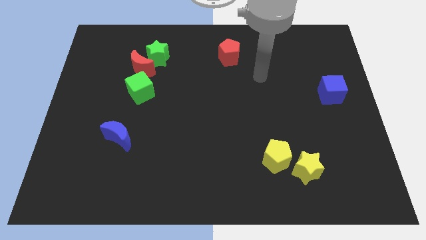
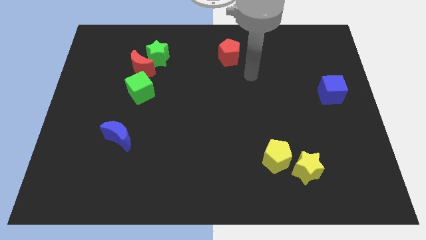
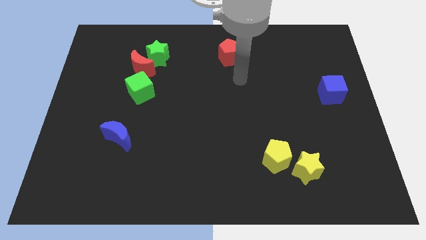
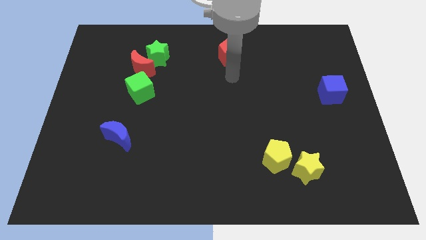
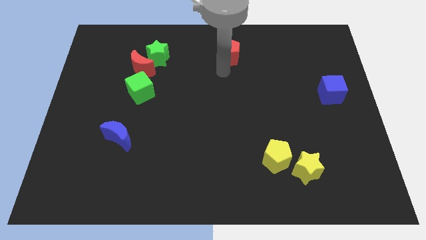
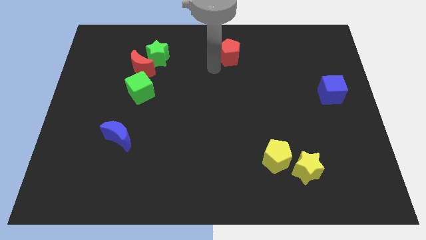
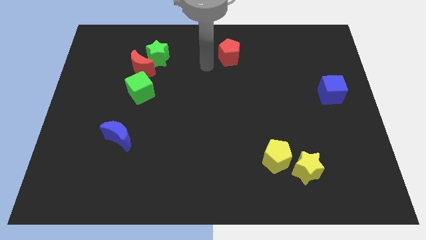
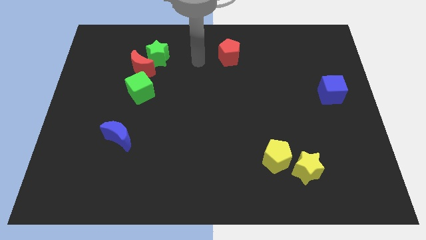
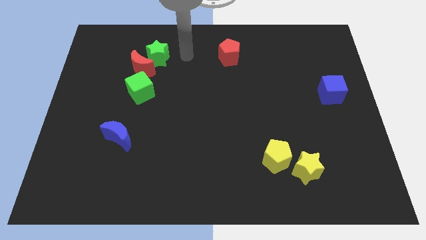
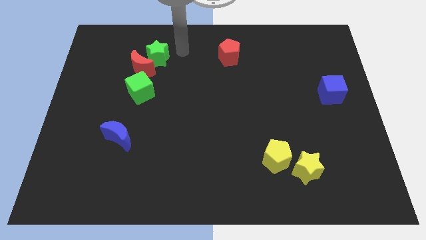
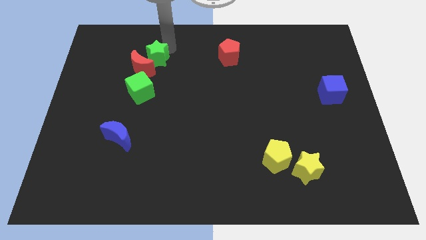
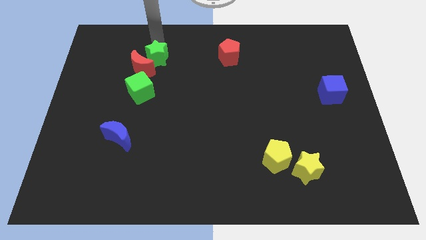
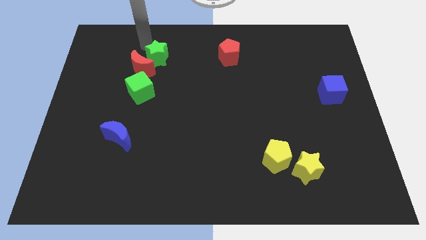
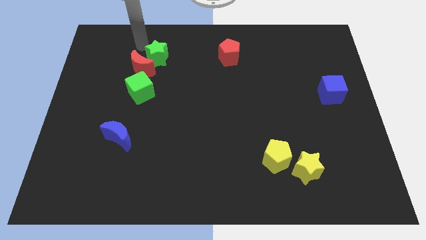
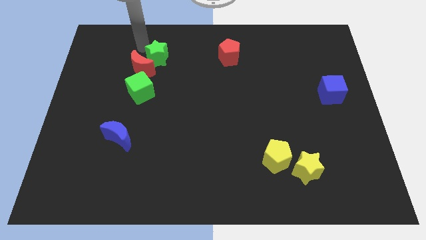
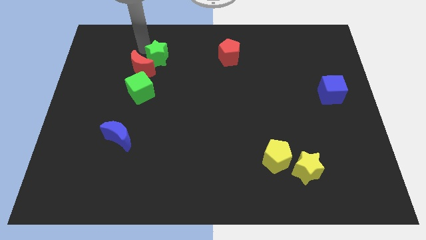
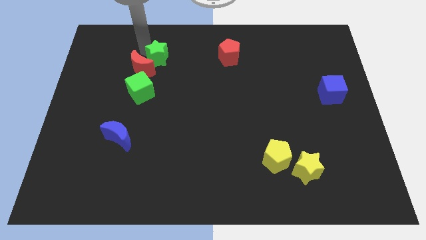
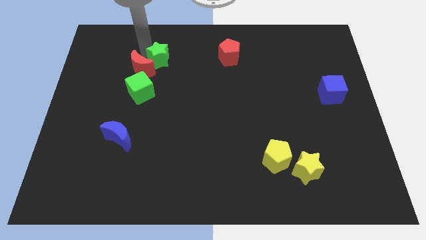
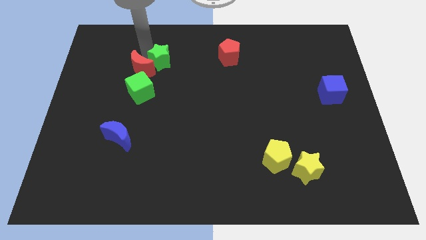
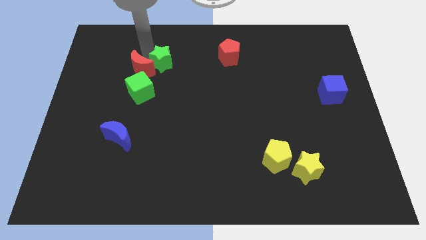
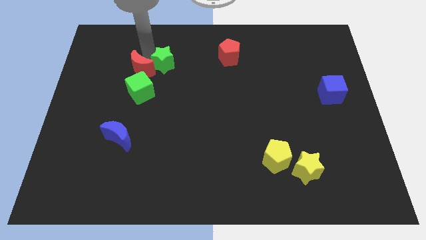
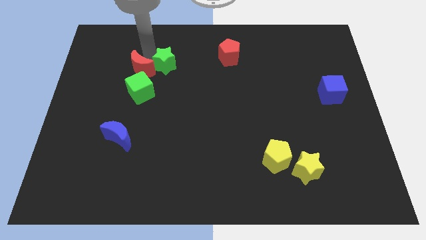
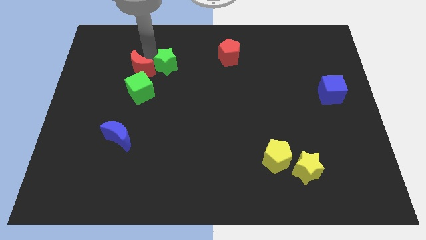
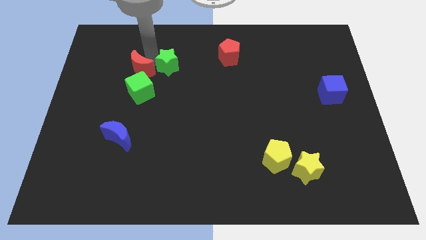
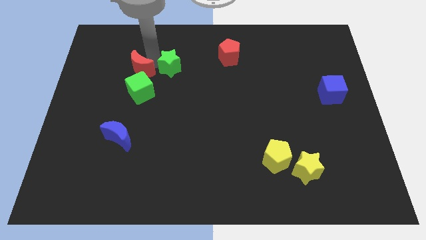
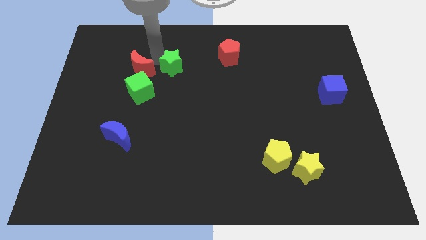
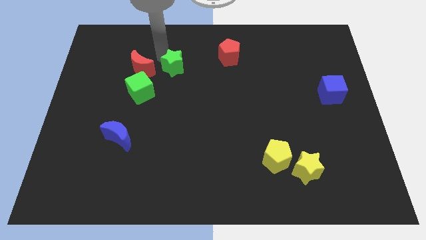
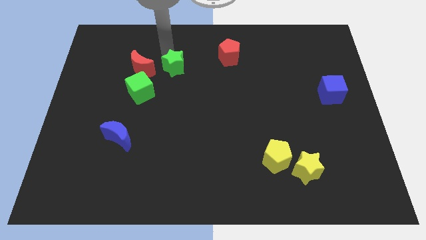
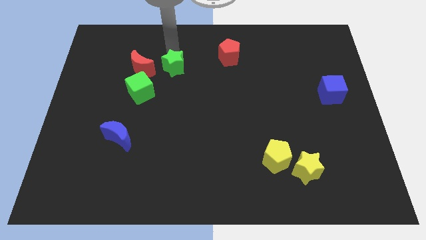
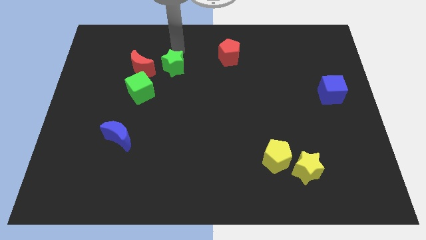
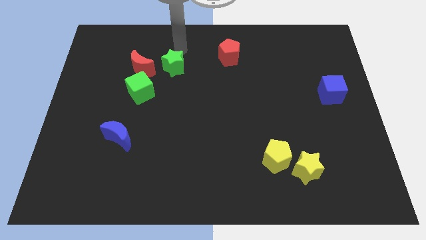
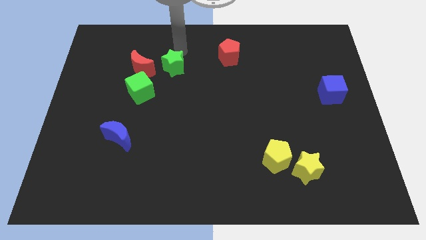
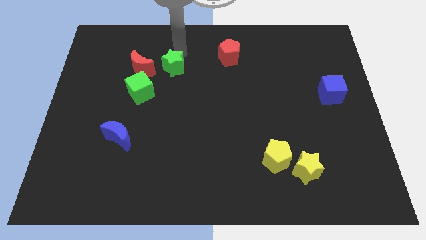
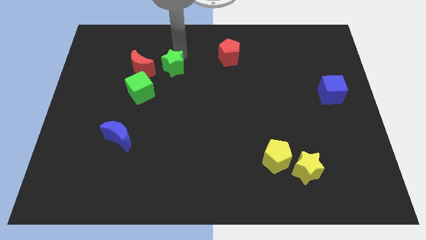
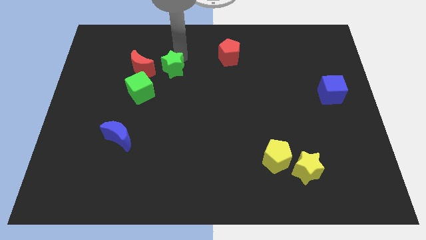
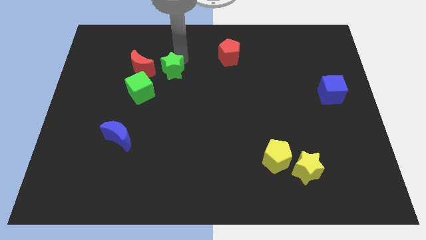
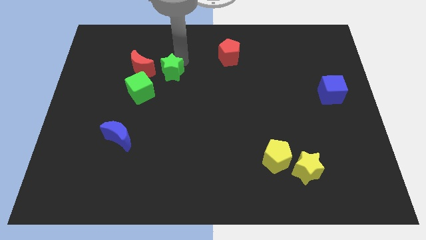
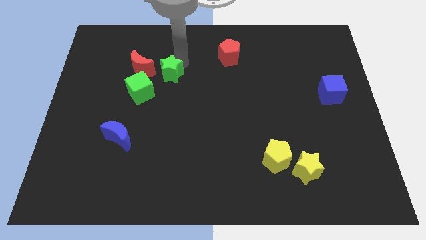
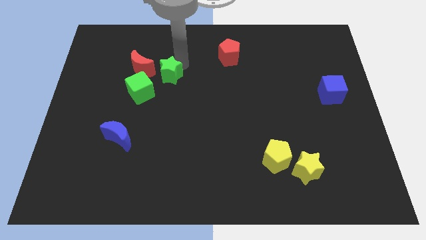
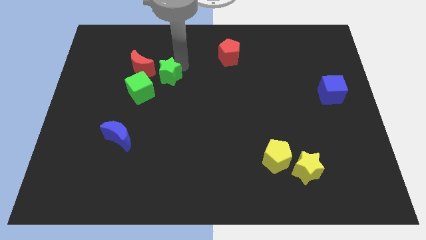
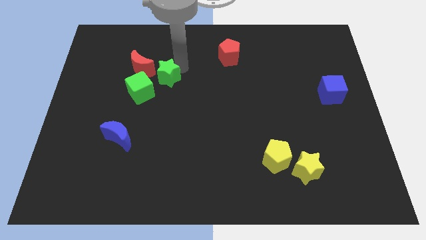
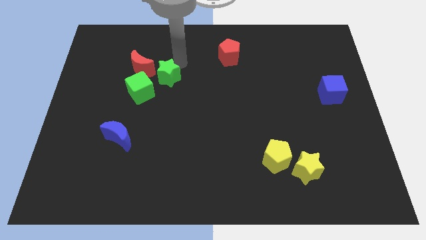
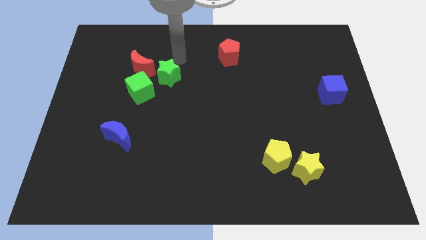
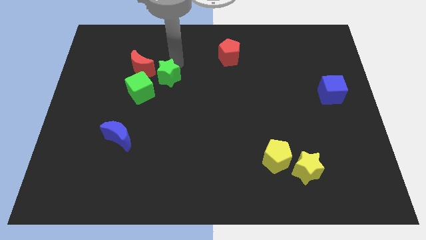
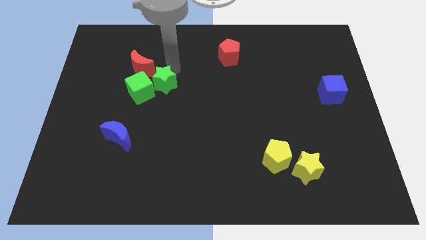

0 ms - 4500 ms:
slightly push the green star down

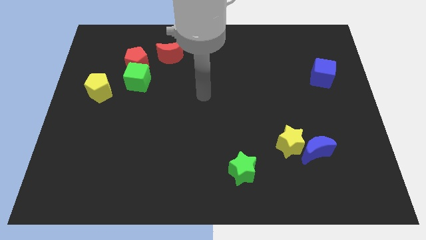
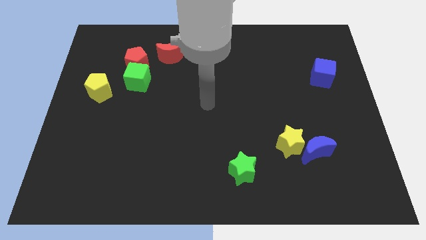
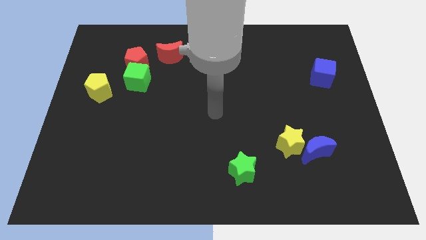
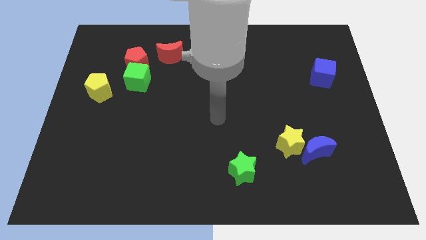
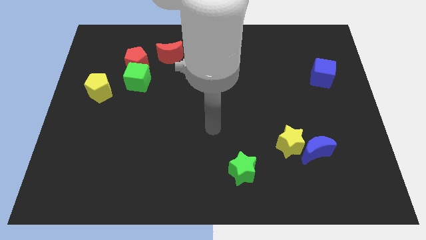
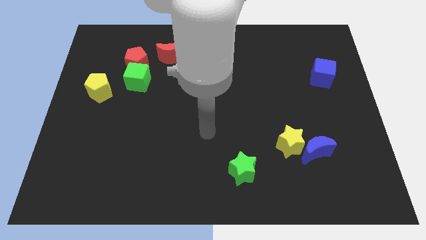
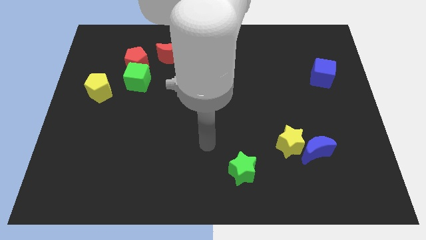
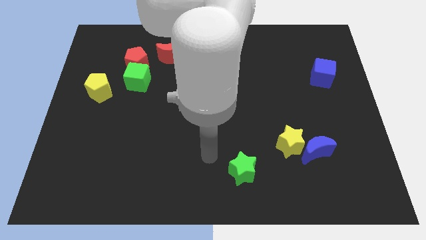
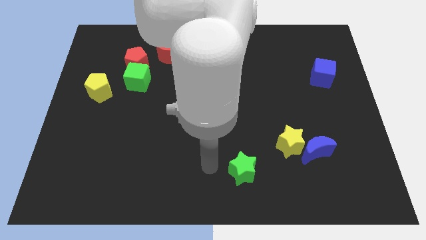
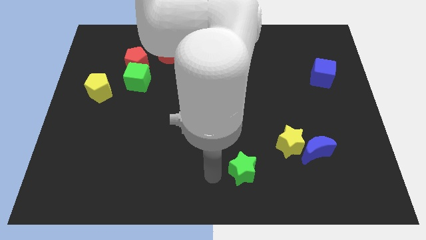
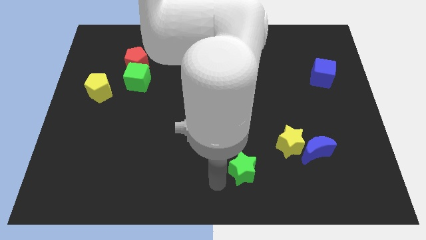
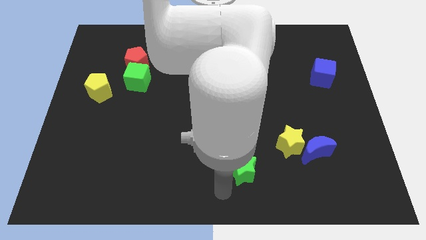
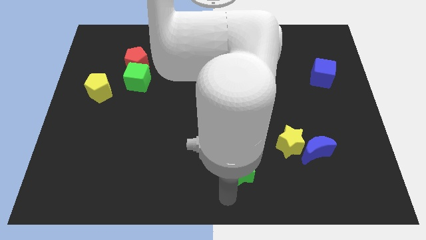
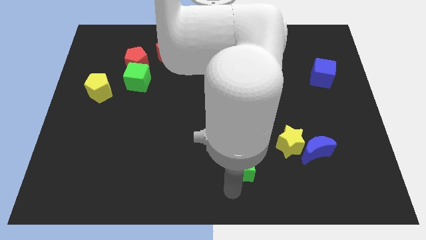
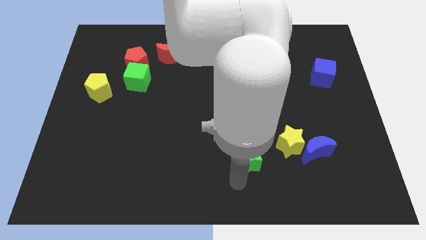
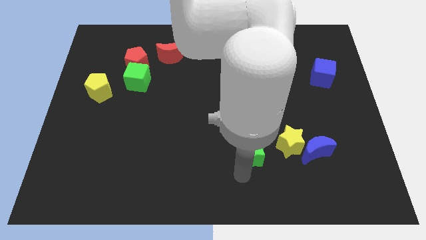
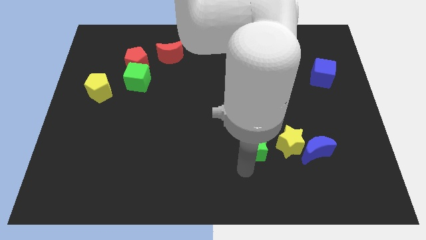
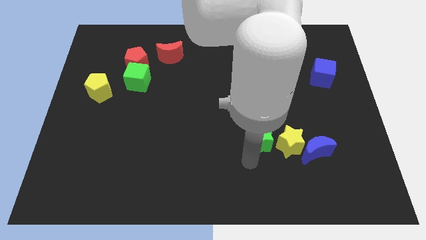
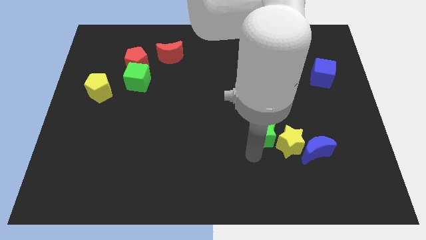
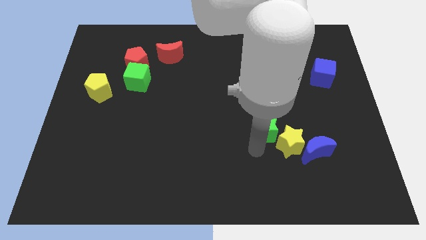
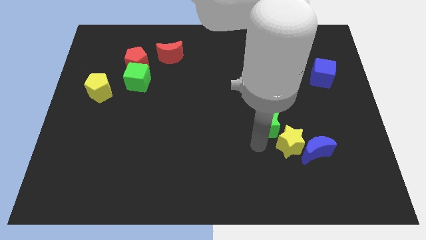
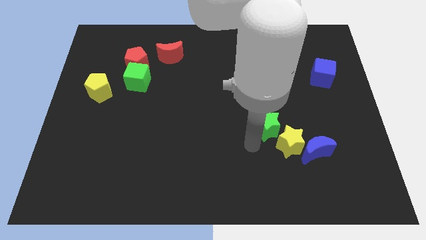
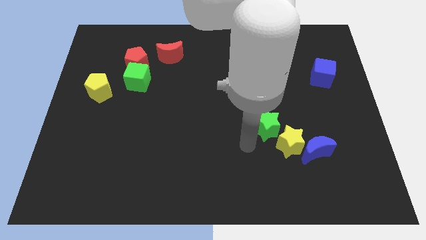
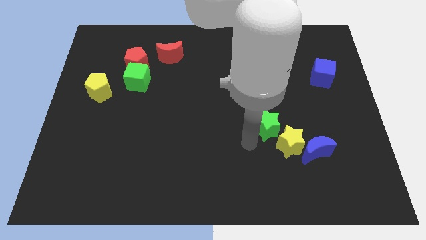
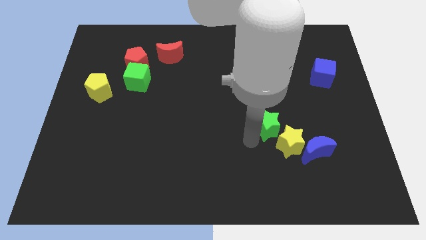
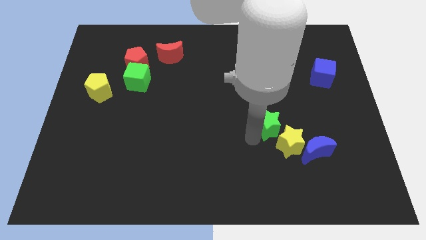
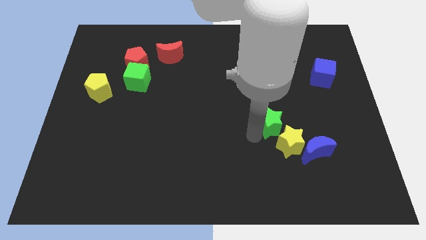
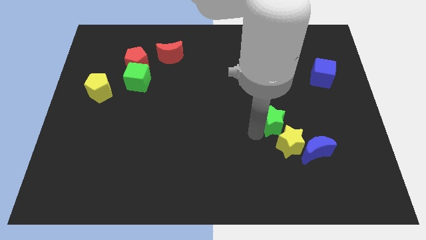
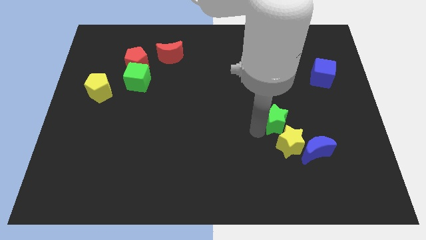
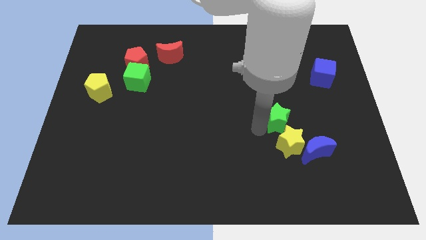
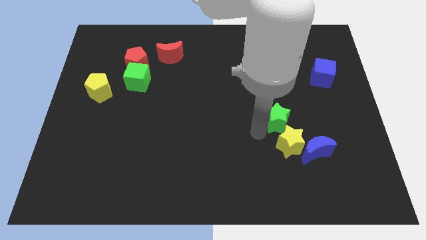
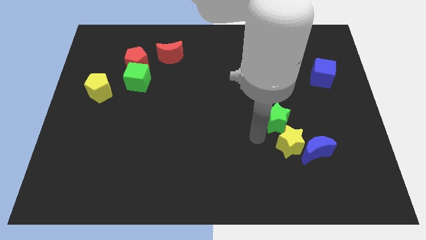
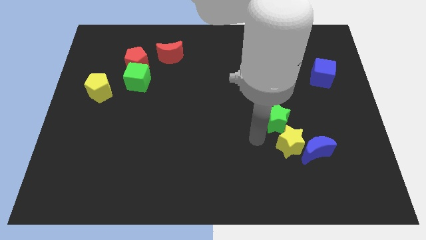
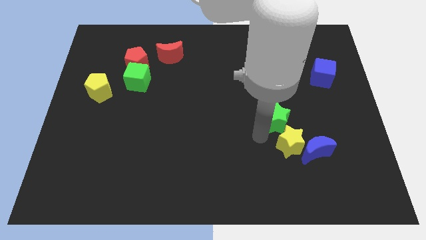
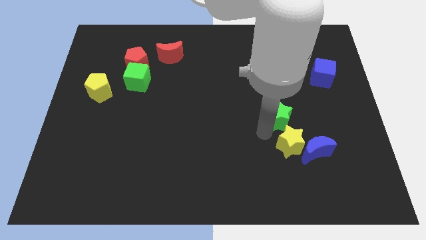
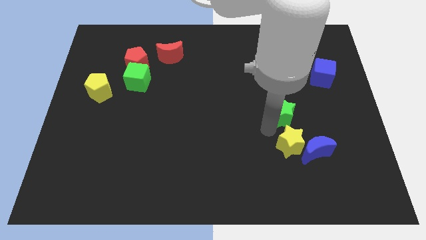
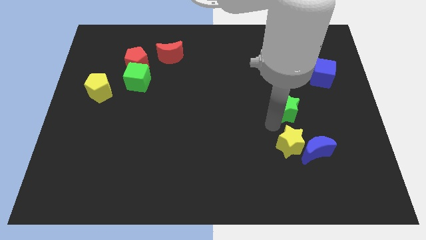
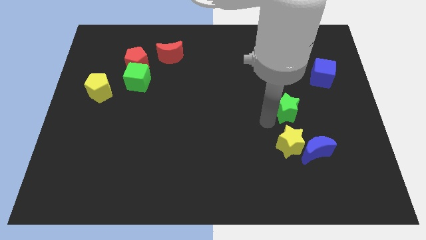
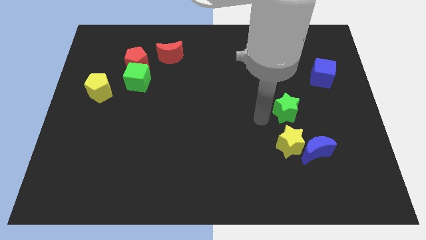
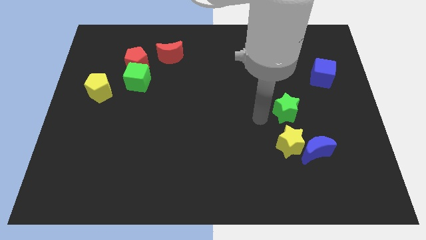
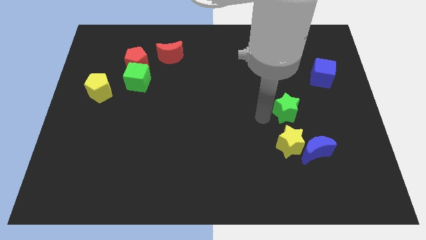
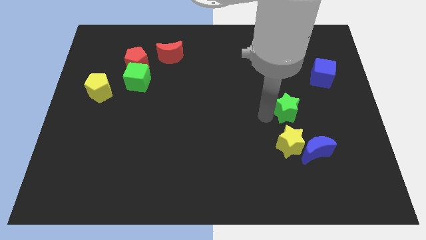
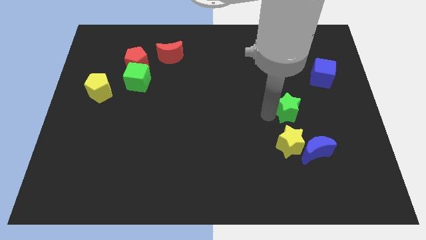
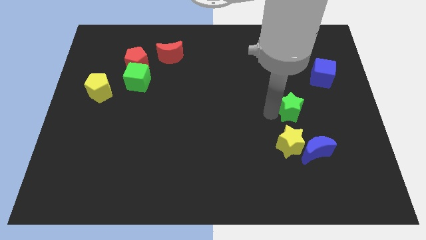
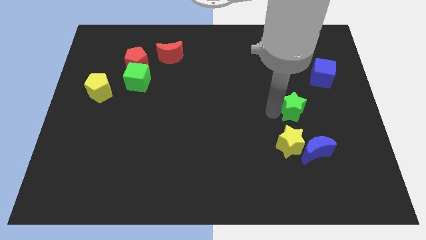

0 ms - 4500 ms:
push the green star up and then to the right
